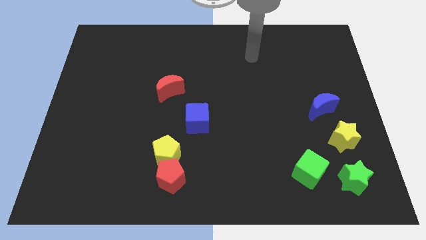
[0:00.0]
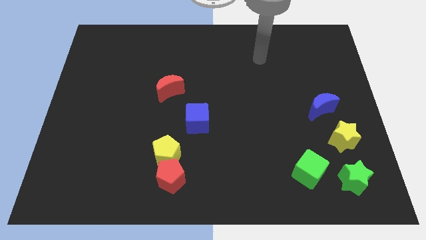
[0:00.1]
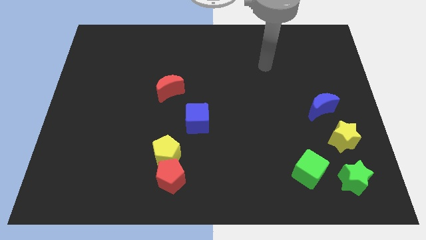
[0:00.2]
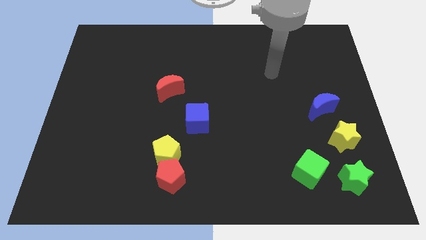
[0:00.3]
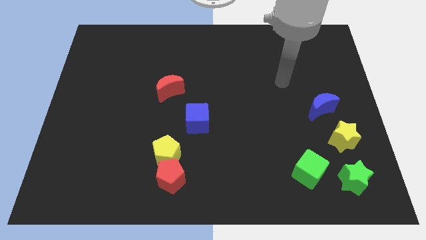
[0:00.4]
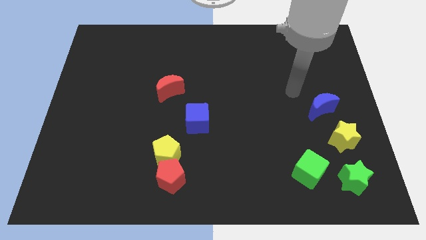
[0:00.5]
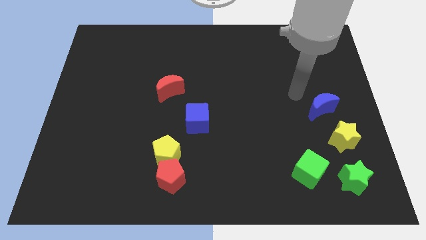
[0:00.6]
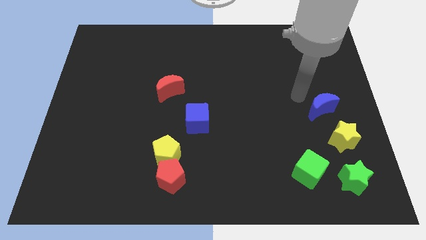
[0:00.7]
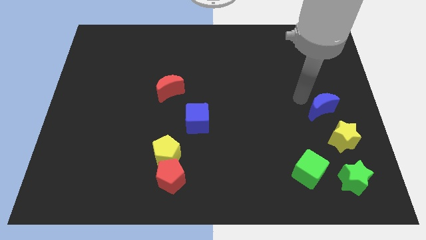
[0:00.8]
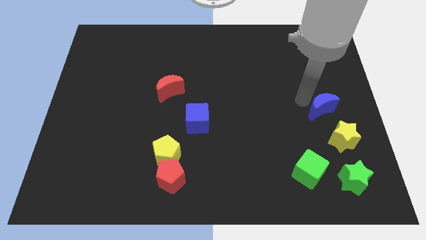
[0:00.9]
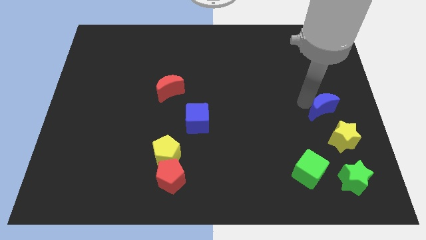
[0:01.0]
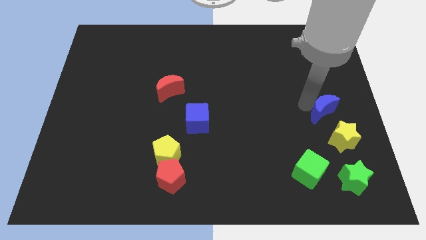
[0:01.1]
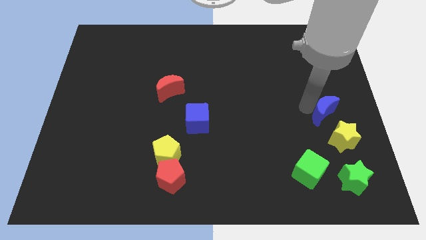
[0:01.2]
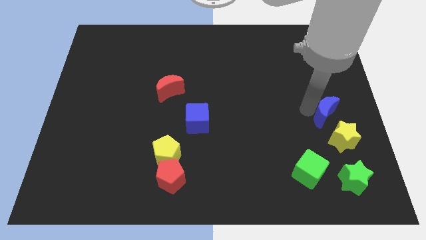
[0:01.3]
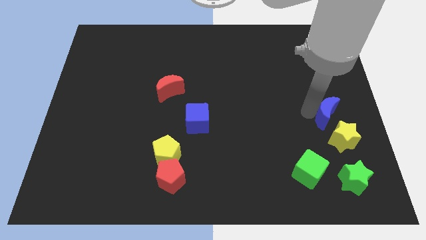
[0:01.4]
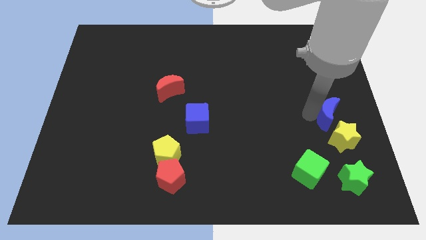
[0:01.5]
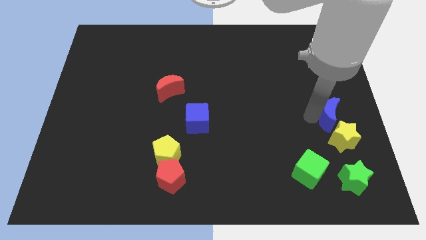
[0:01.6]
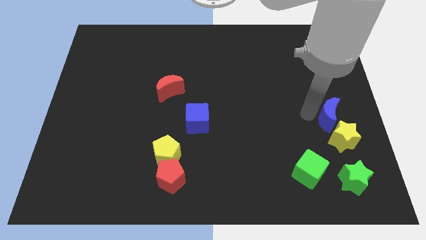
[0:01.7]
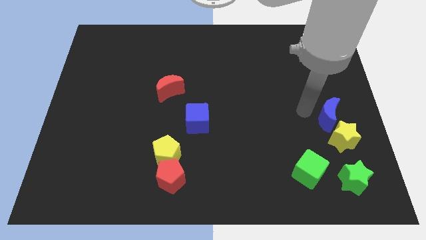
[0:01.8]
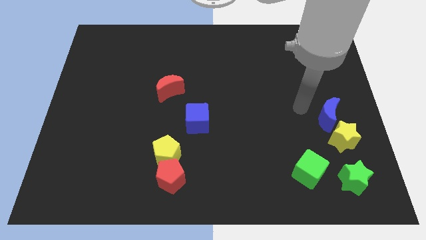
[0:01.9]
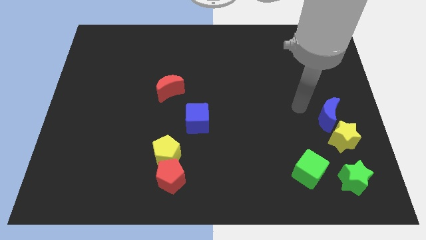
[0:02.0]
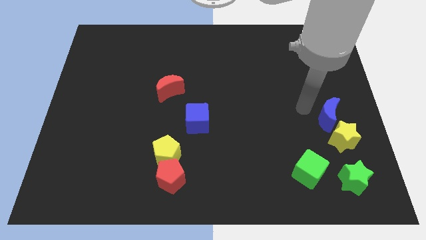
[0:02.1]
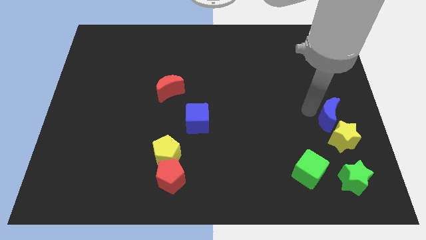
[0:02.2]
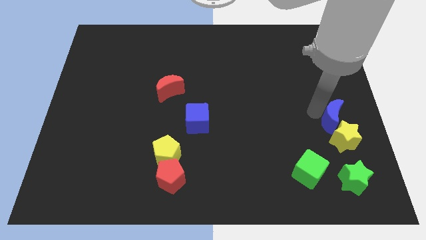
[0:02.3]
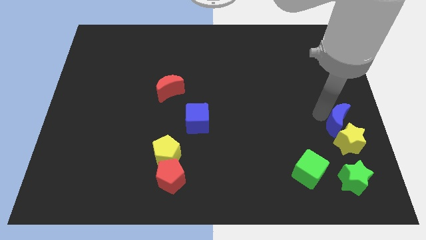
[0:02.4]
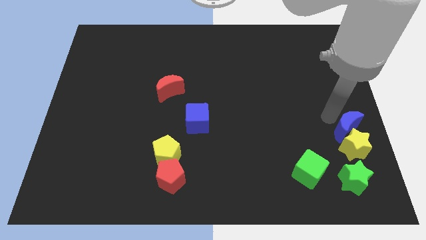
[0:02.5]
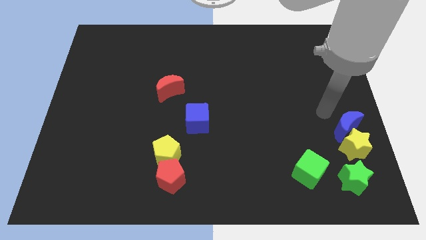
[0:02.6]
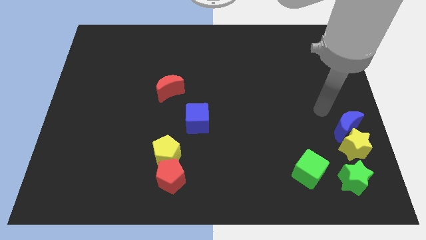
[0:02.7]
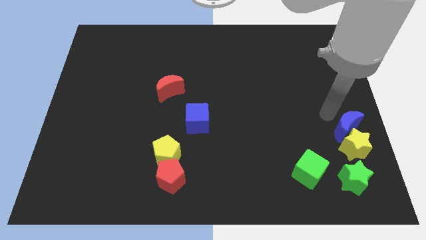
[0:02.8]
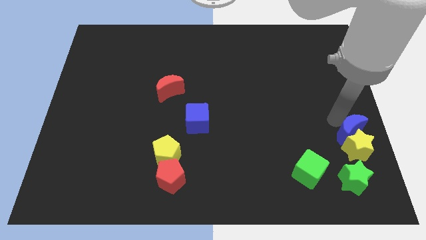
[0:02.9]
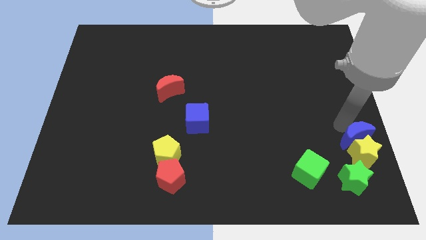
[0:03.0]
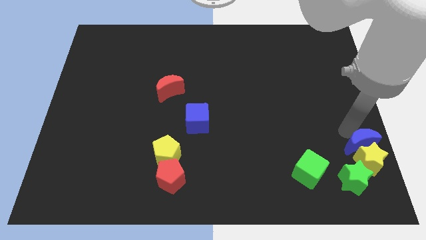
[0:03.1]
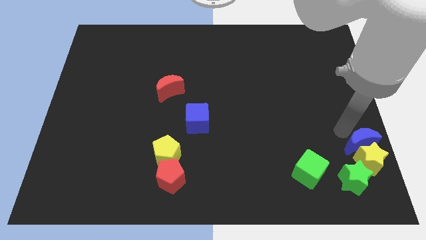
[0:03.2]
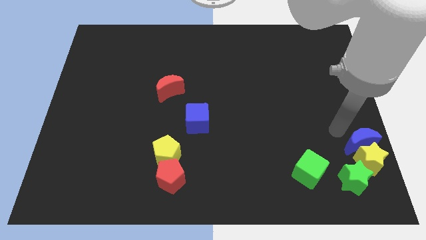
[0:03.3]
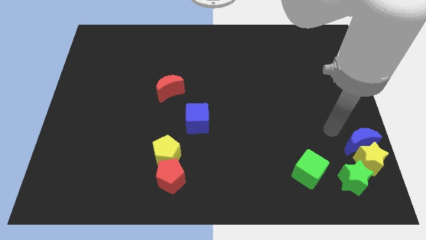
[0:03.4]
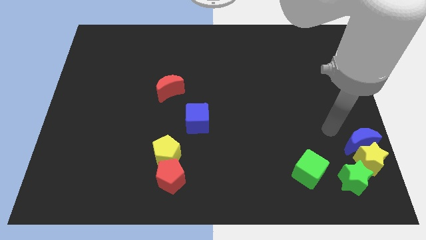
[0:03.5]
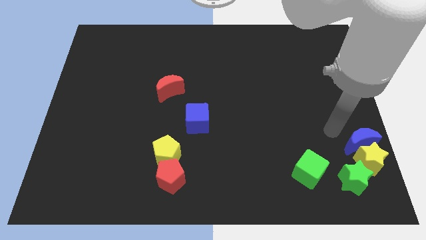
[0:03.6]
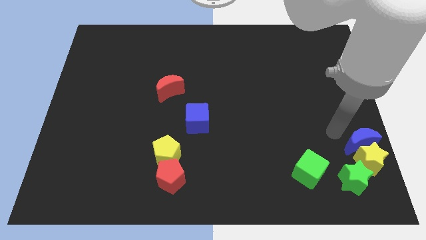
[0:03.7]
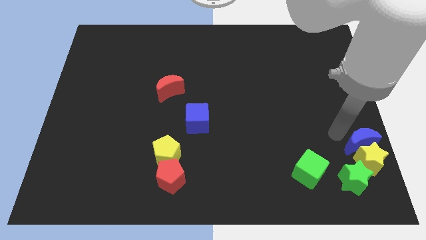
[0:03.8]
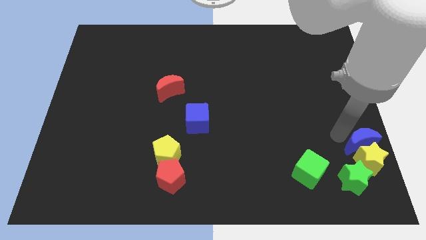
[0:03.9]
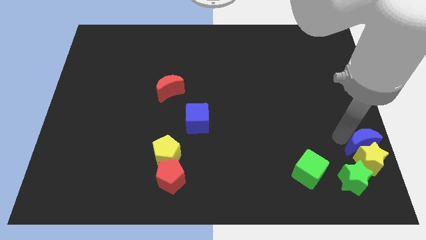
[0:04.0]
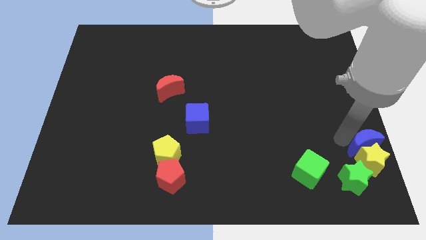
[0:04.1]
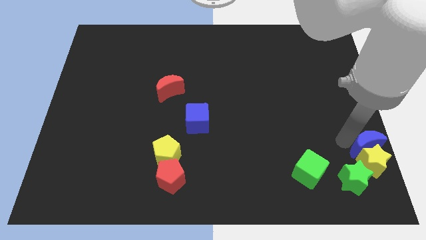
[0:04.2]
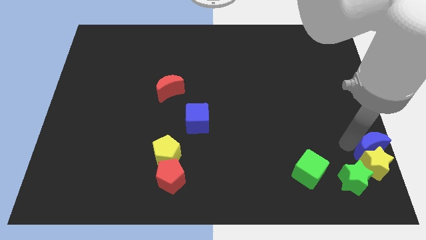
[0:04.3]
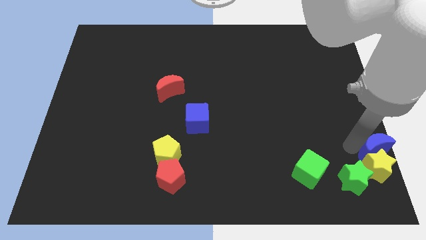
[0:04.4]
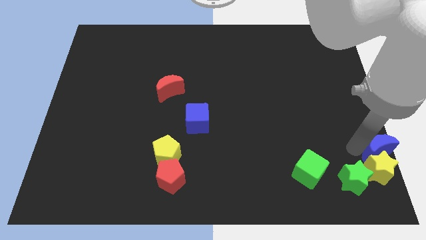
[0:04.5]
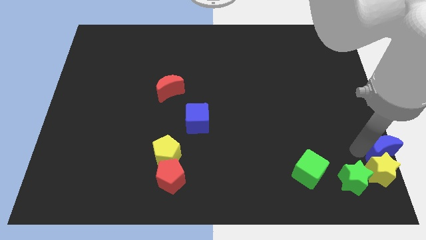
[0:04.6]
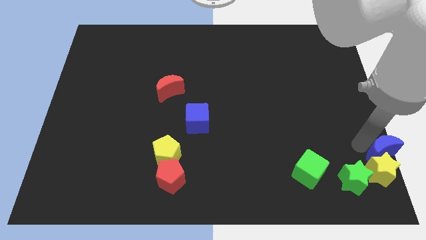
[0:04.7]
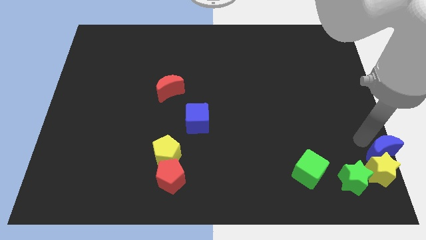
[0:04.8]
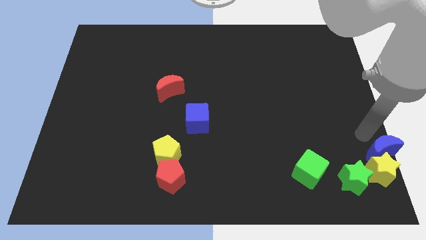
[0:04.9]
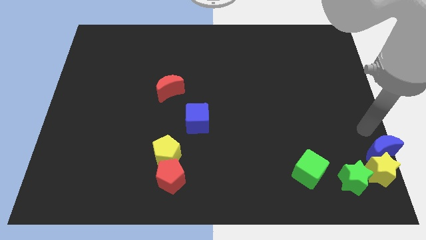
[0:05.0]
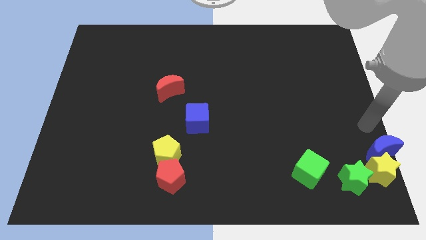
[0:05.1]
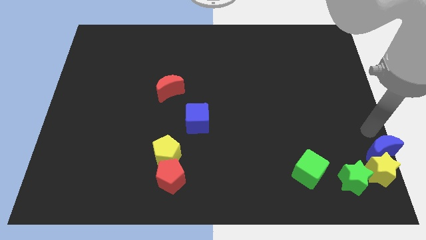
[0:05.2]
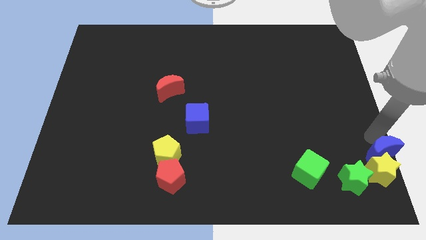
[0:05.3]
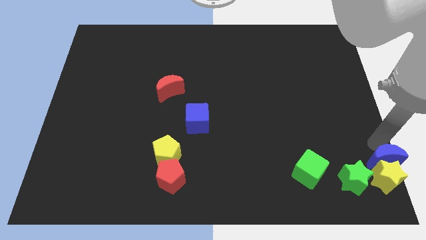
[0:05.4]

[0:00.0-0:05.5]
move the blue moon to the bottom right corner
